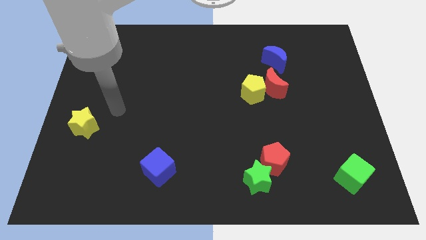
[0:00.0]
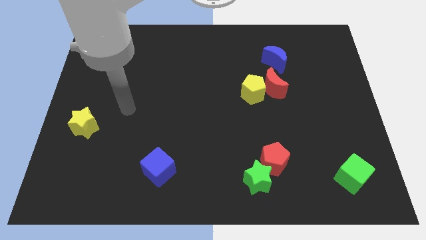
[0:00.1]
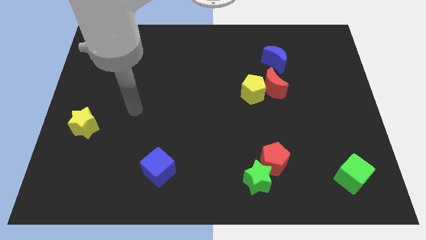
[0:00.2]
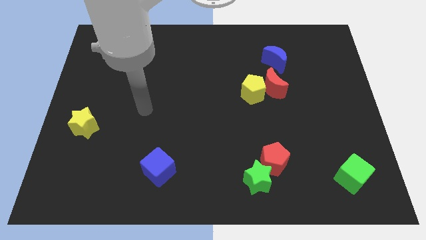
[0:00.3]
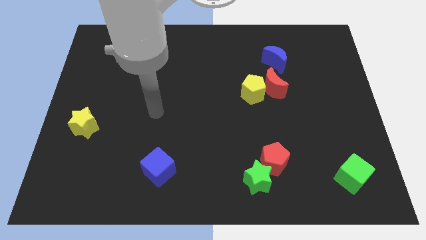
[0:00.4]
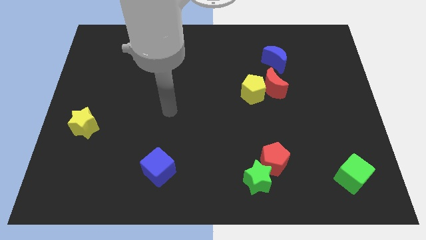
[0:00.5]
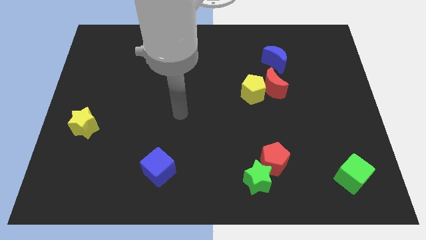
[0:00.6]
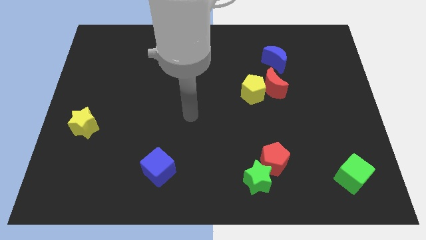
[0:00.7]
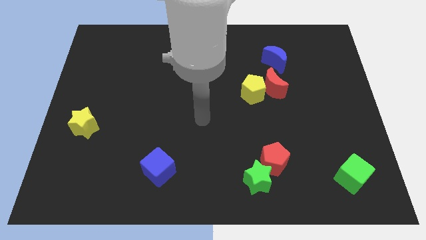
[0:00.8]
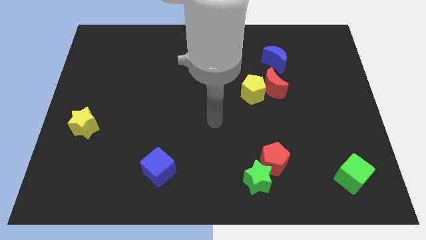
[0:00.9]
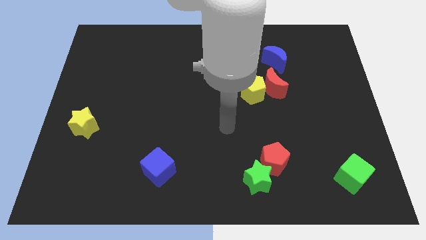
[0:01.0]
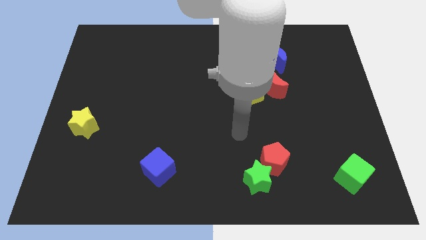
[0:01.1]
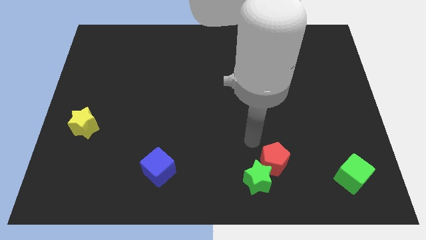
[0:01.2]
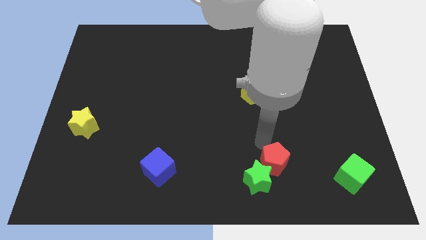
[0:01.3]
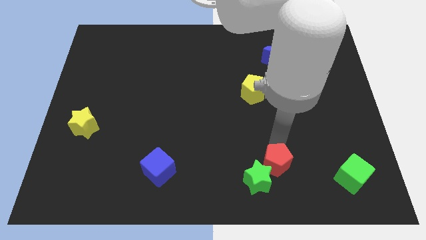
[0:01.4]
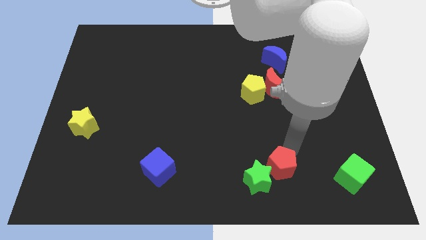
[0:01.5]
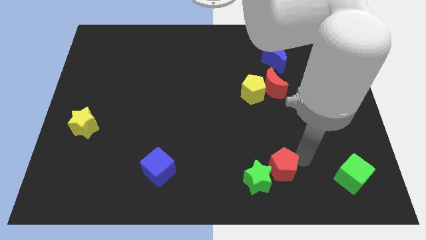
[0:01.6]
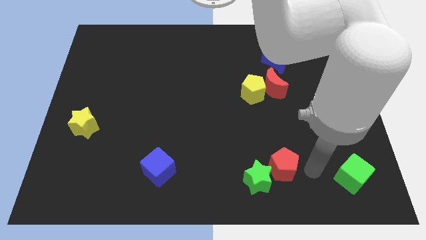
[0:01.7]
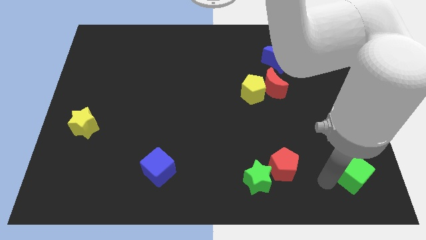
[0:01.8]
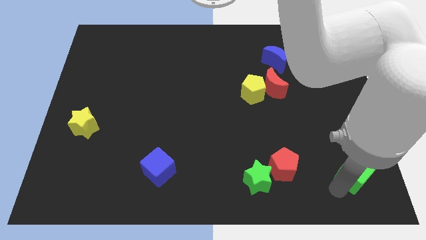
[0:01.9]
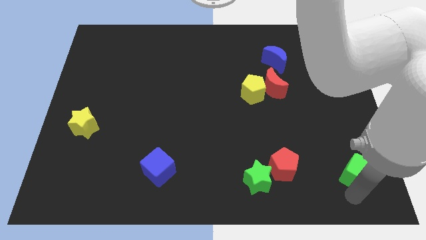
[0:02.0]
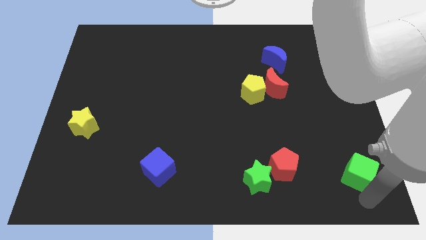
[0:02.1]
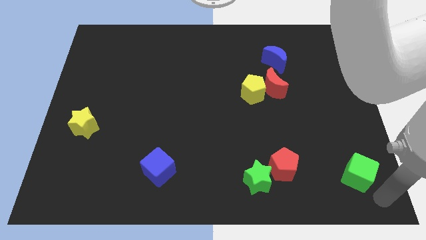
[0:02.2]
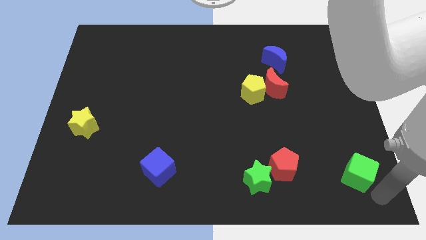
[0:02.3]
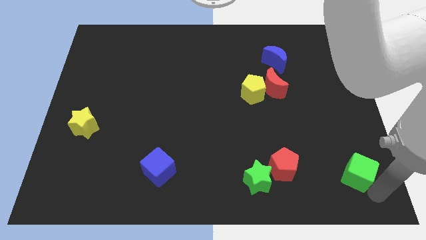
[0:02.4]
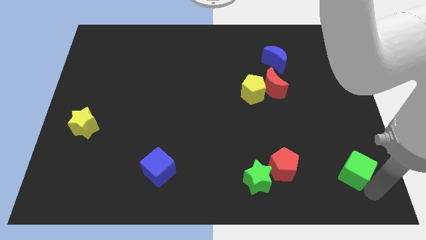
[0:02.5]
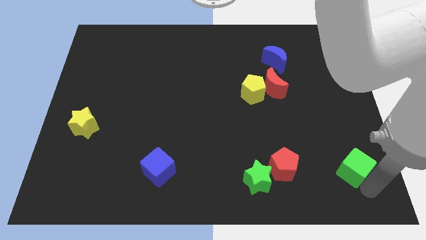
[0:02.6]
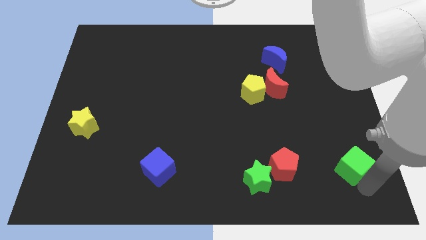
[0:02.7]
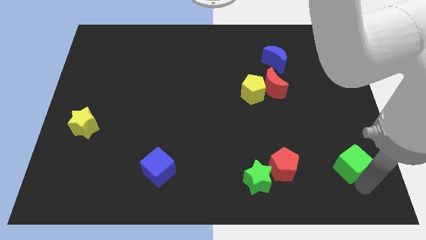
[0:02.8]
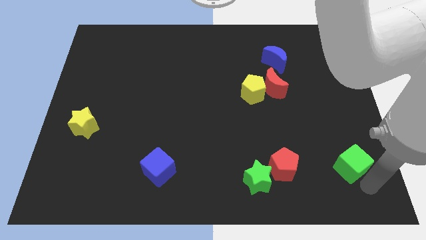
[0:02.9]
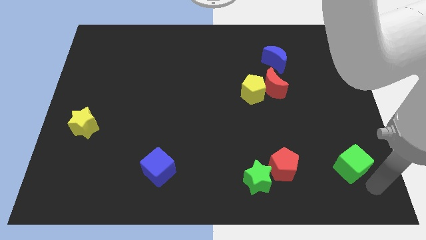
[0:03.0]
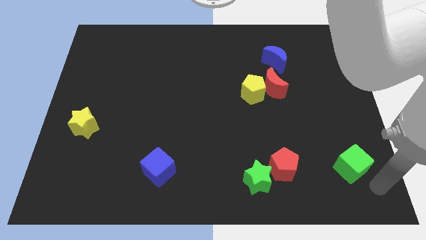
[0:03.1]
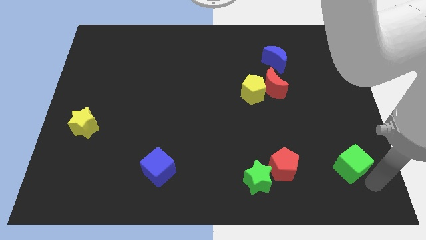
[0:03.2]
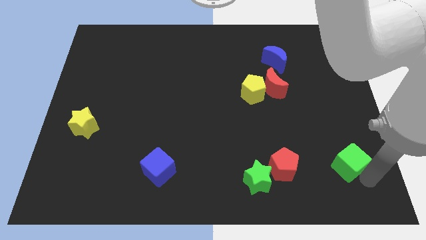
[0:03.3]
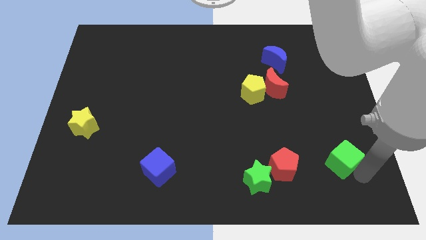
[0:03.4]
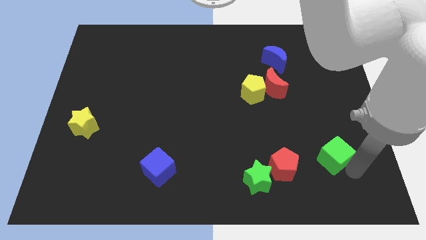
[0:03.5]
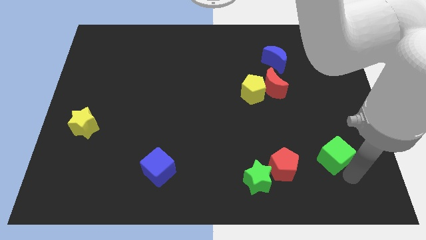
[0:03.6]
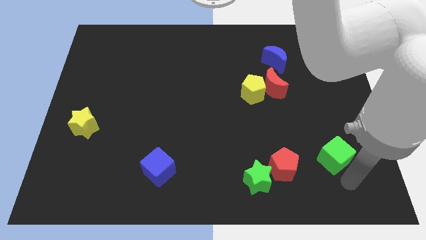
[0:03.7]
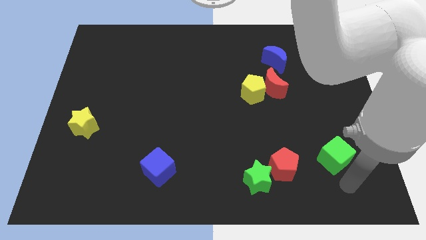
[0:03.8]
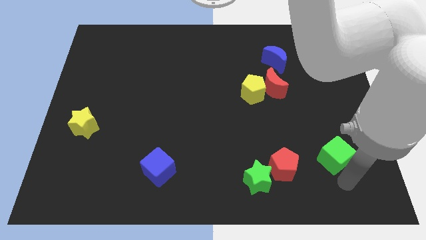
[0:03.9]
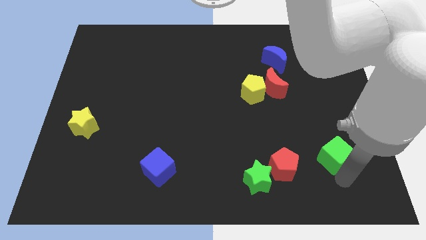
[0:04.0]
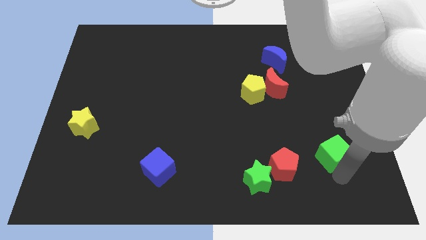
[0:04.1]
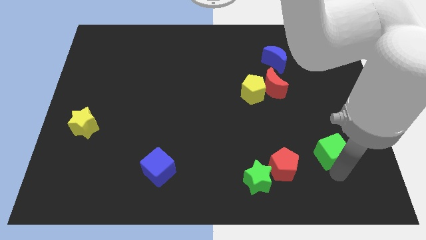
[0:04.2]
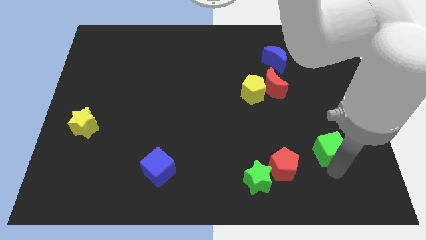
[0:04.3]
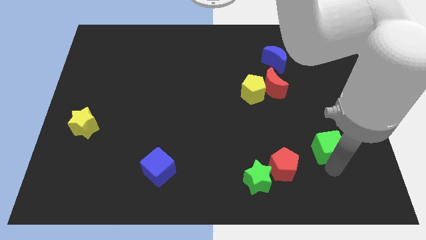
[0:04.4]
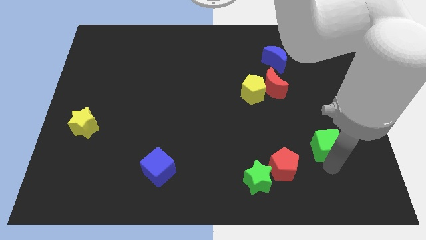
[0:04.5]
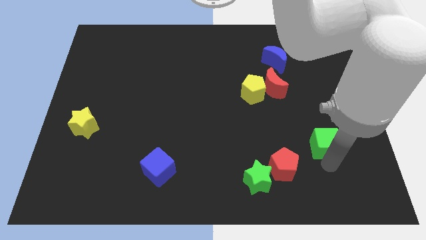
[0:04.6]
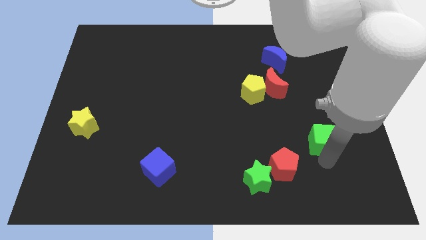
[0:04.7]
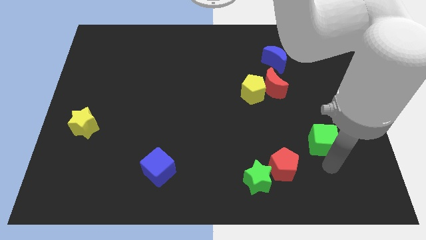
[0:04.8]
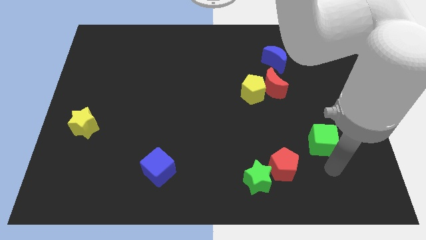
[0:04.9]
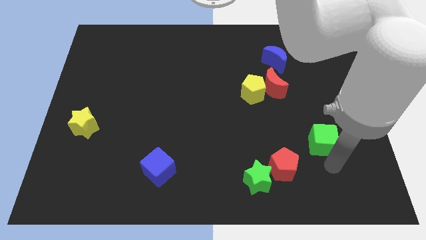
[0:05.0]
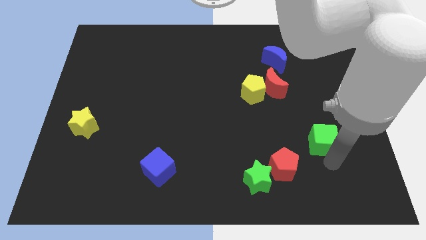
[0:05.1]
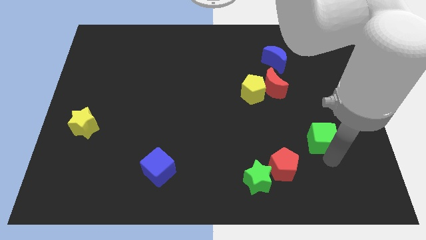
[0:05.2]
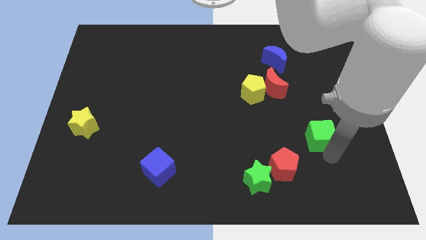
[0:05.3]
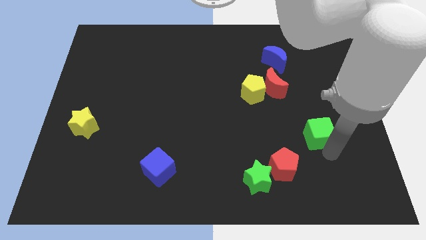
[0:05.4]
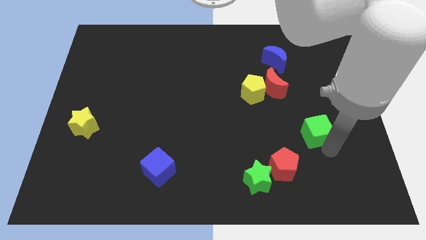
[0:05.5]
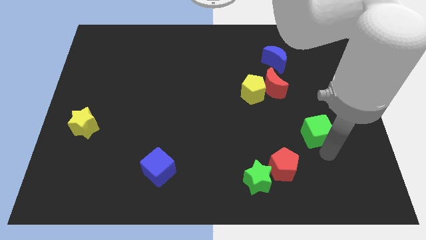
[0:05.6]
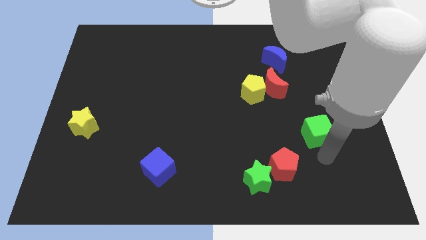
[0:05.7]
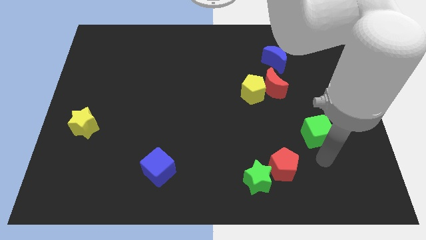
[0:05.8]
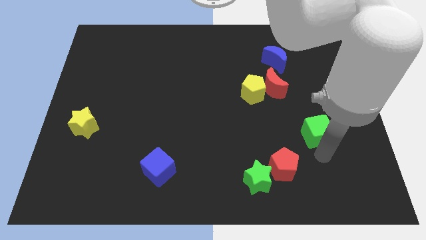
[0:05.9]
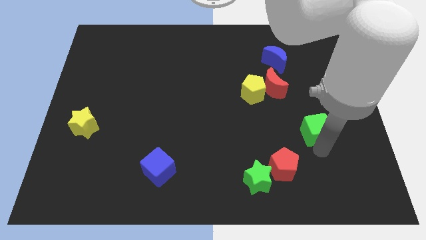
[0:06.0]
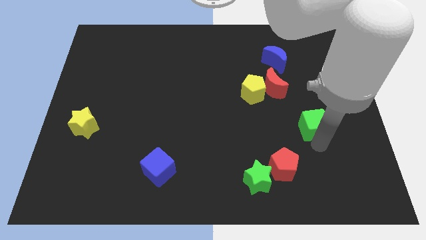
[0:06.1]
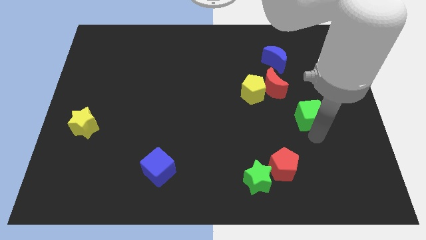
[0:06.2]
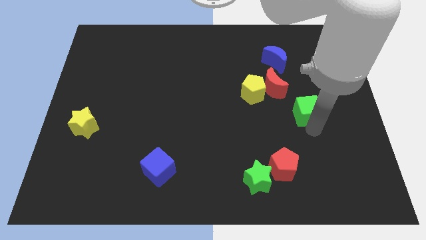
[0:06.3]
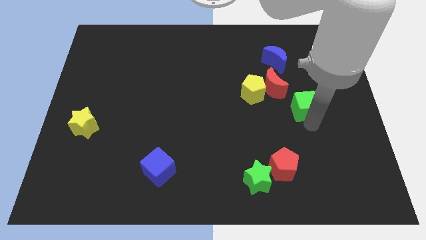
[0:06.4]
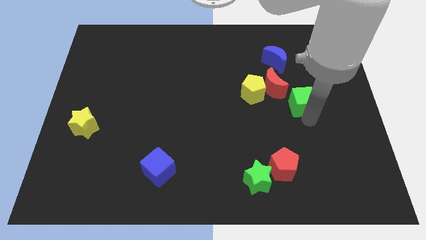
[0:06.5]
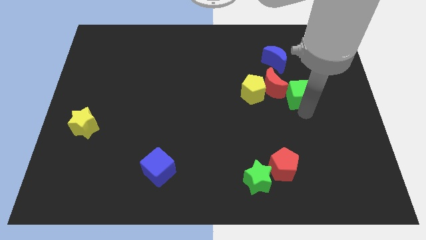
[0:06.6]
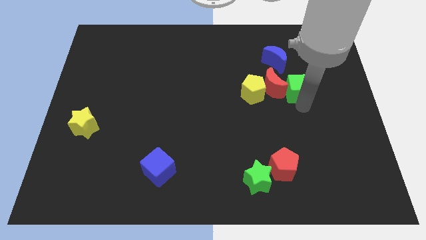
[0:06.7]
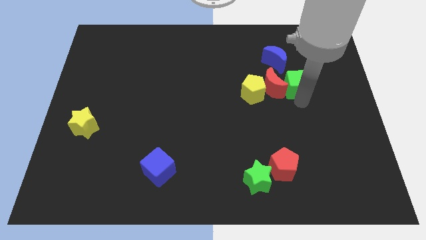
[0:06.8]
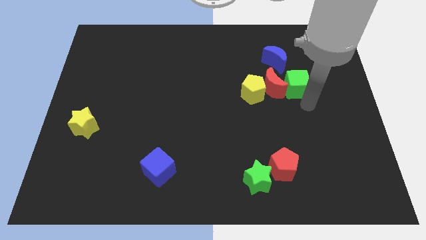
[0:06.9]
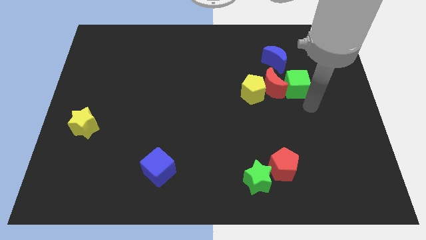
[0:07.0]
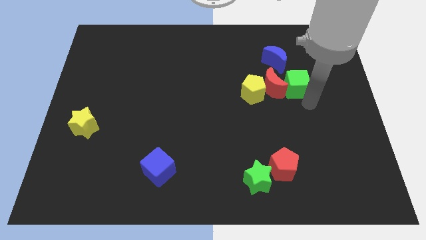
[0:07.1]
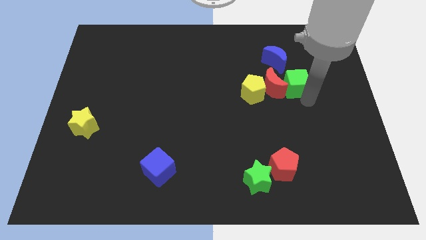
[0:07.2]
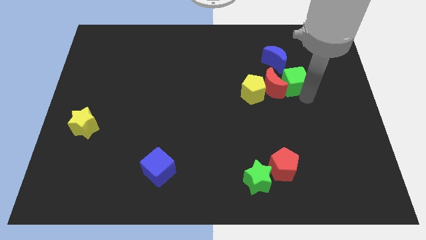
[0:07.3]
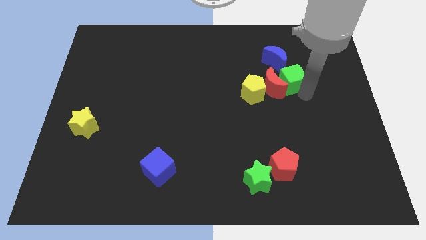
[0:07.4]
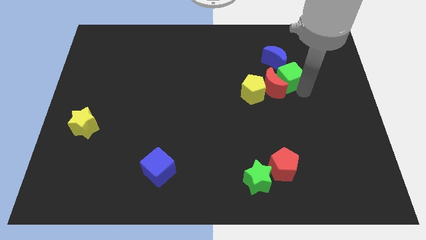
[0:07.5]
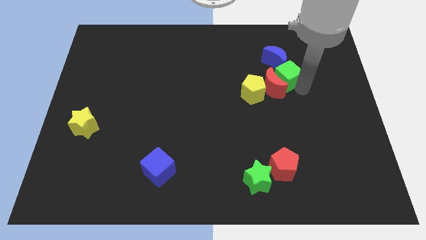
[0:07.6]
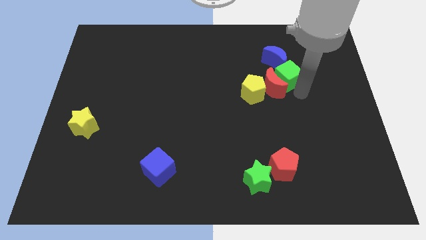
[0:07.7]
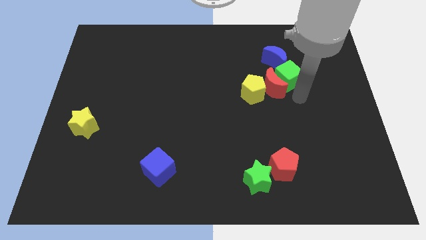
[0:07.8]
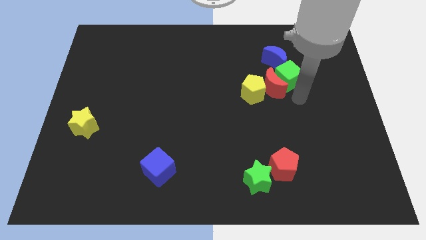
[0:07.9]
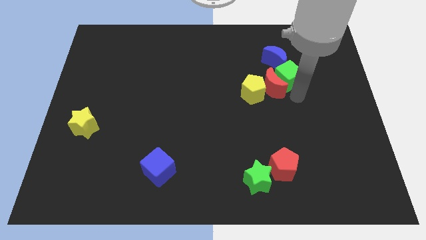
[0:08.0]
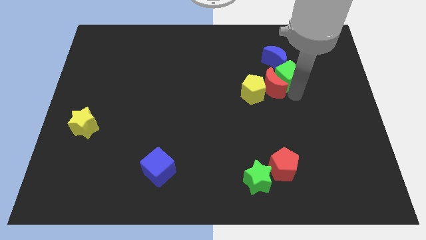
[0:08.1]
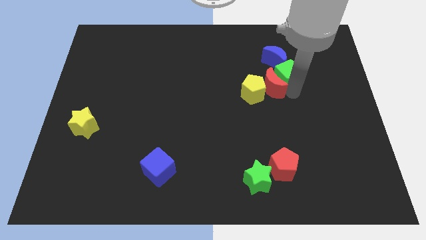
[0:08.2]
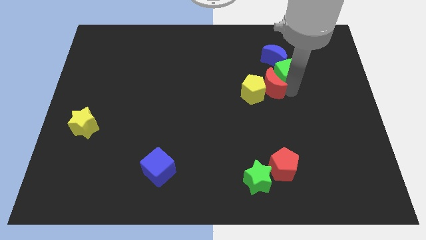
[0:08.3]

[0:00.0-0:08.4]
put the green cube towards the blue moon
